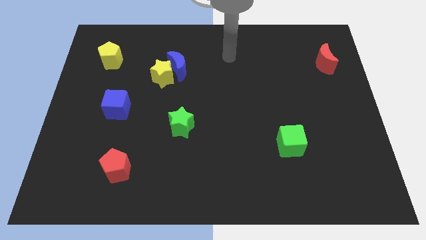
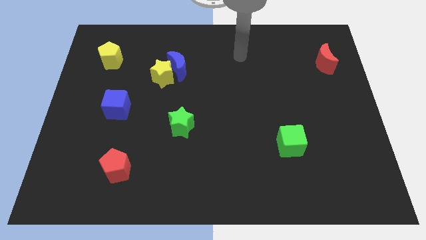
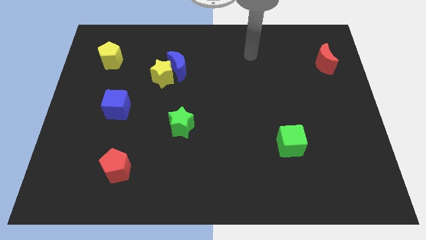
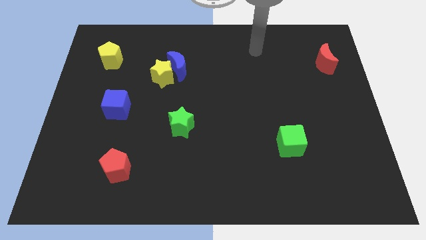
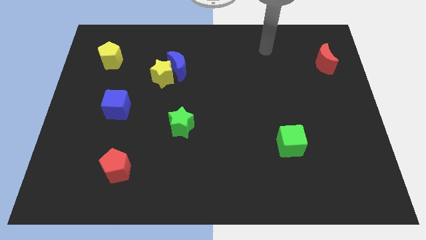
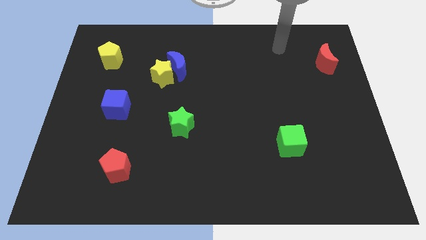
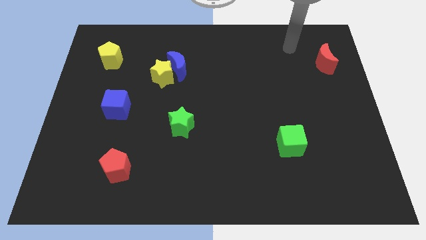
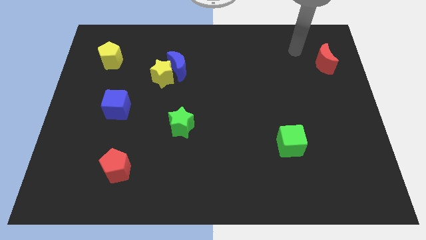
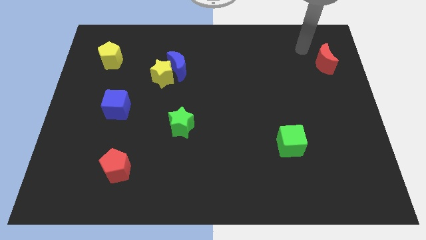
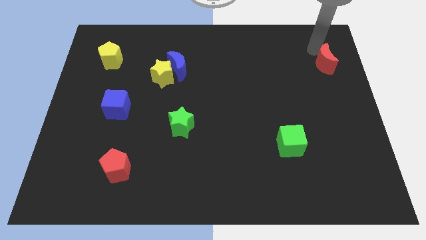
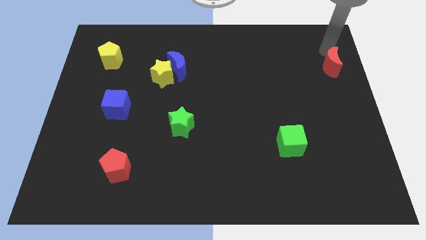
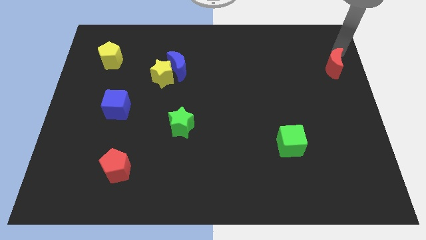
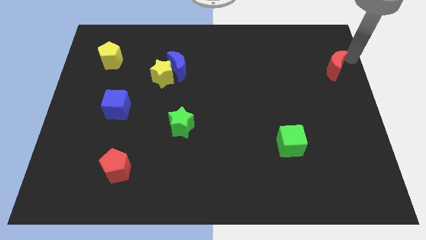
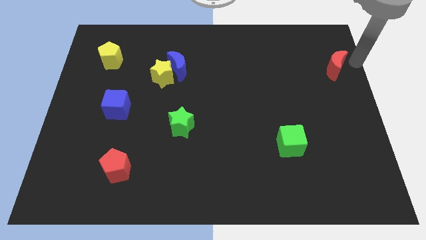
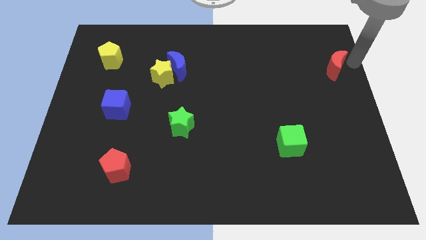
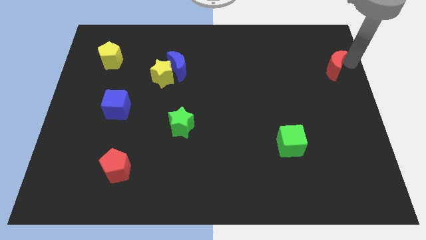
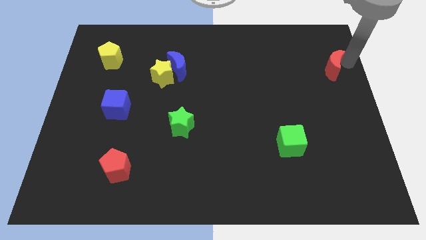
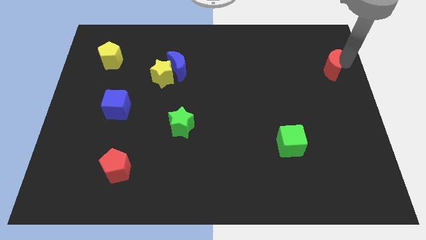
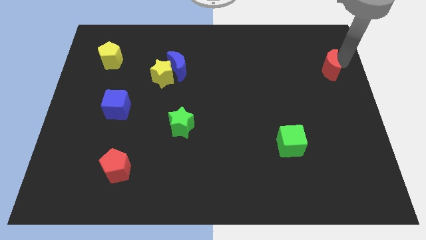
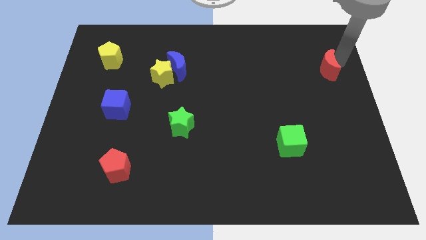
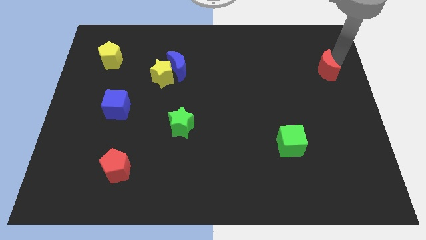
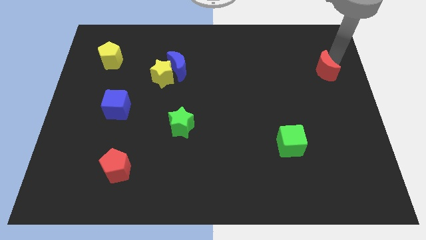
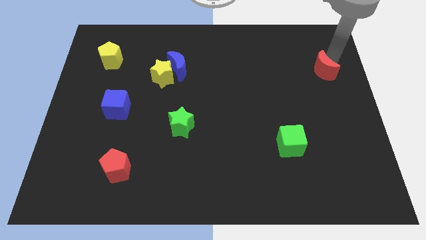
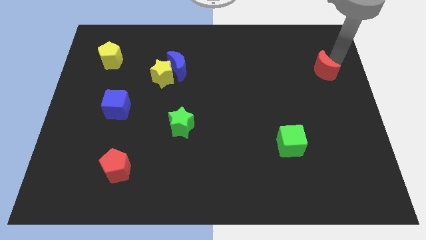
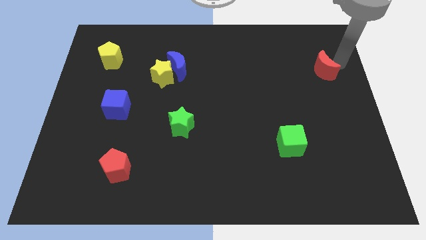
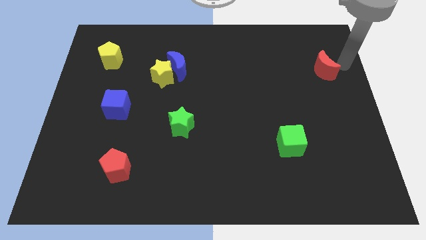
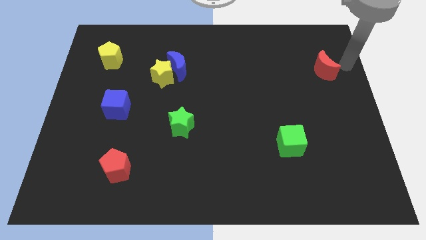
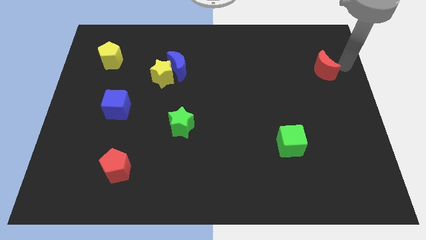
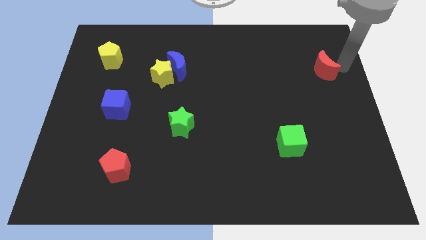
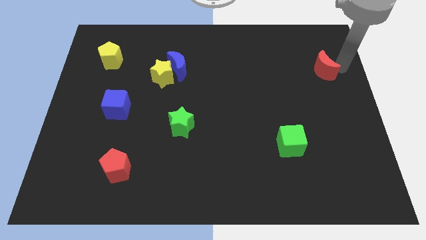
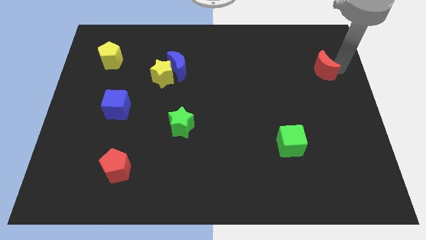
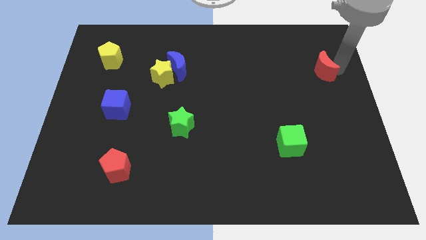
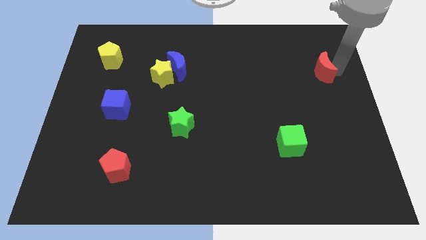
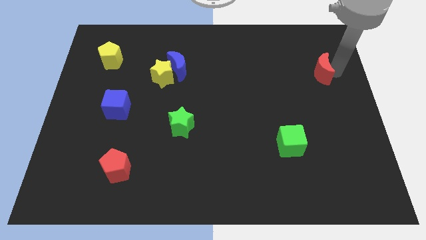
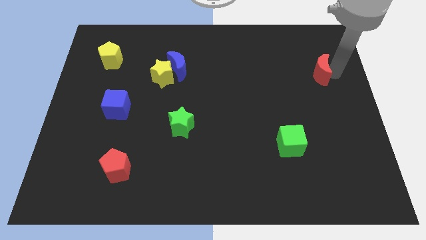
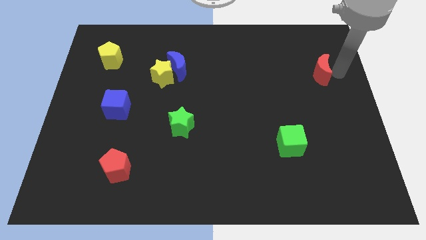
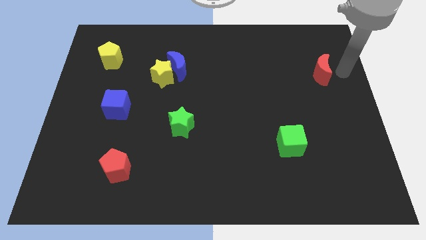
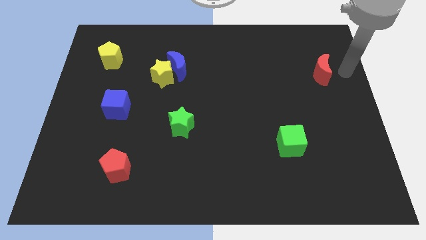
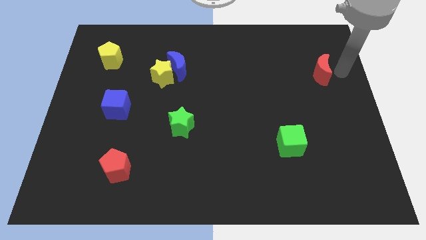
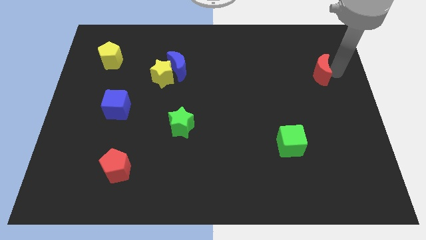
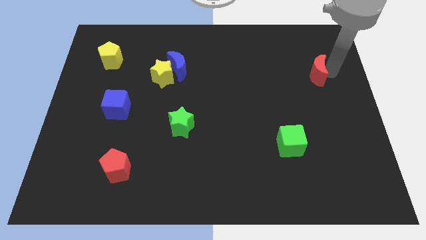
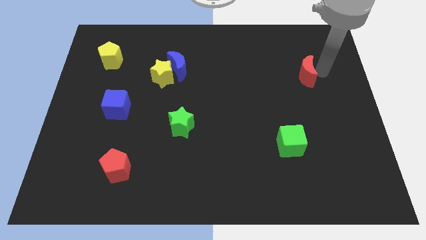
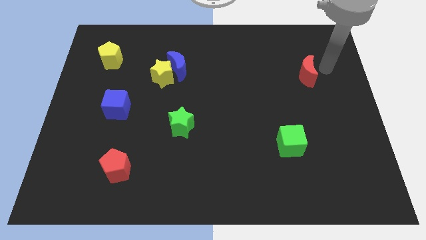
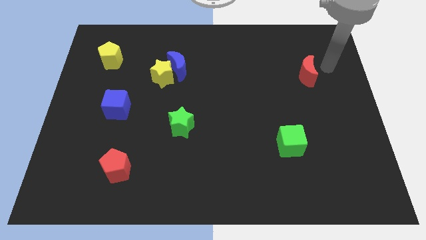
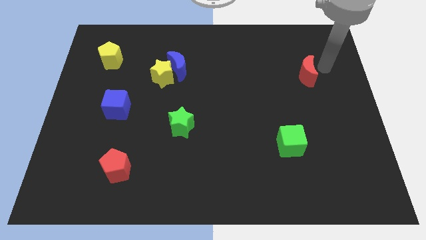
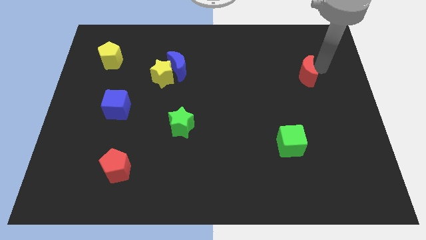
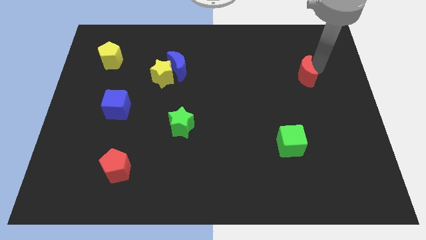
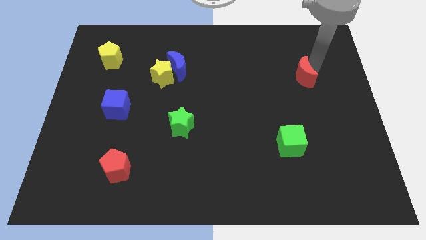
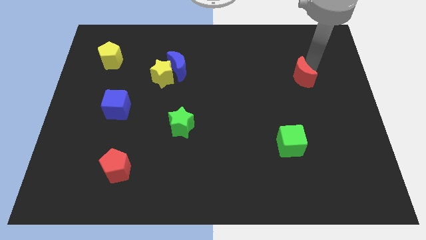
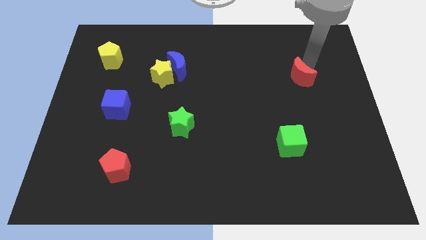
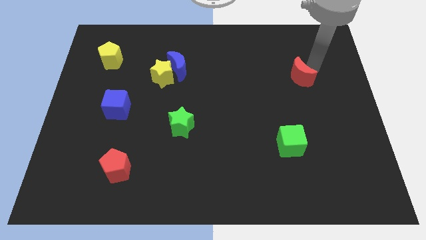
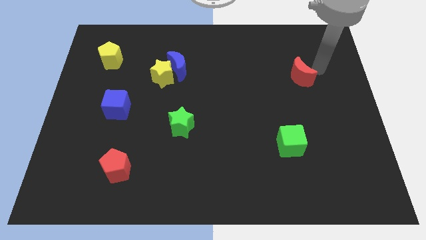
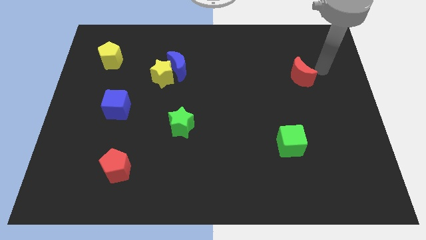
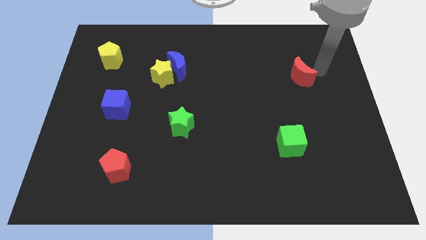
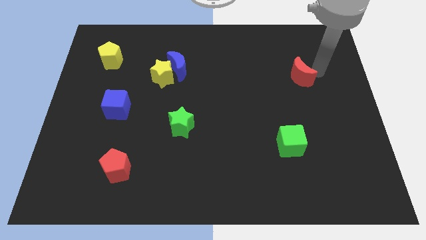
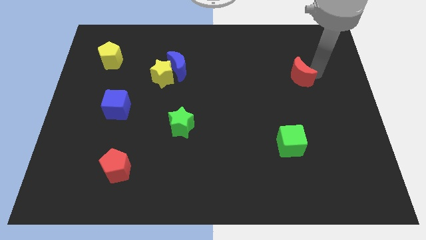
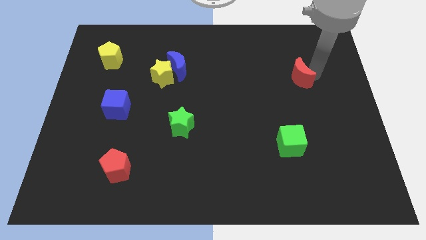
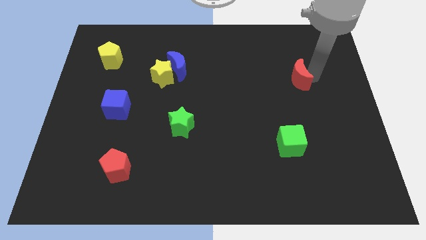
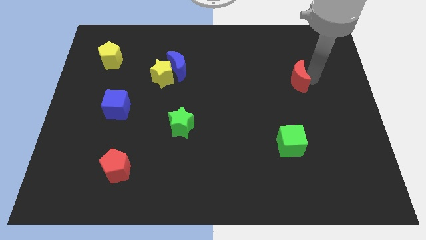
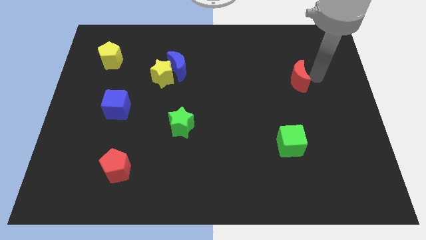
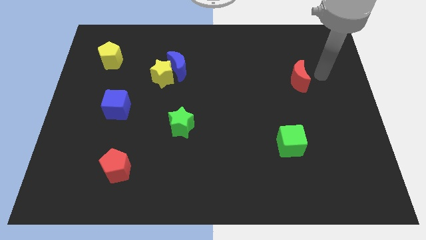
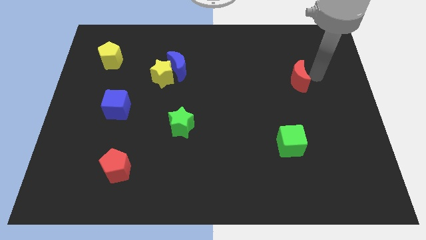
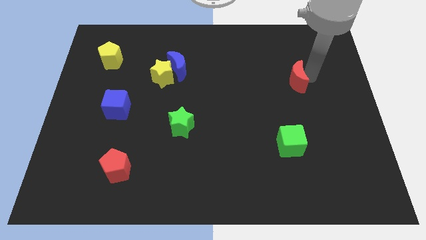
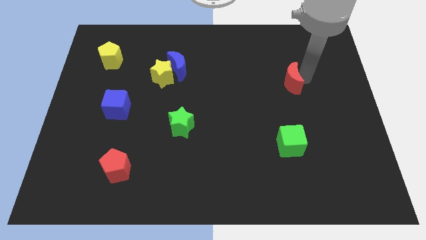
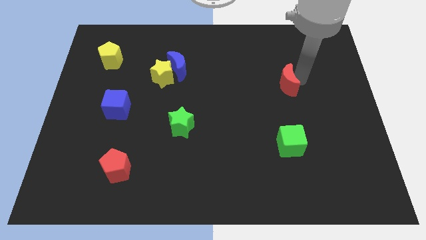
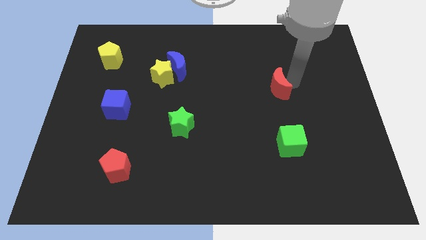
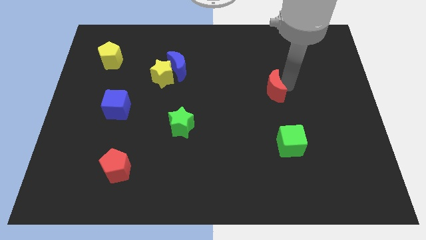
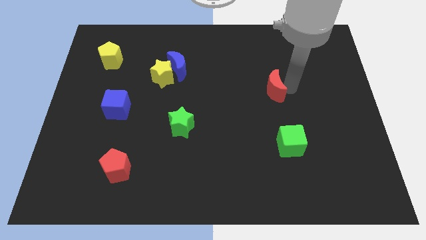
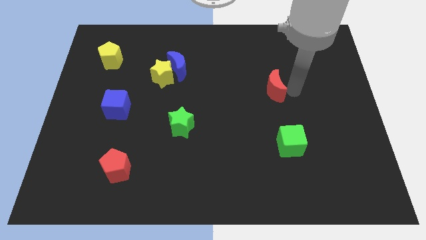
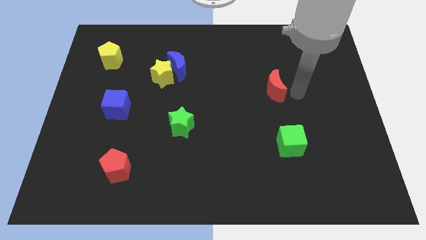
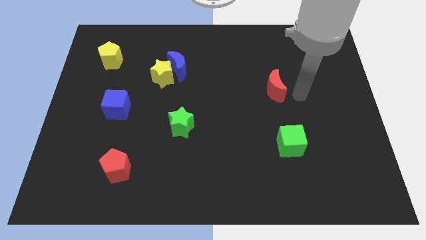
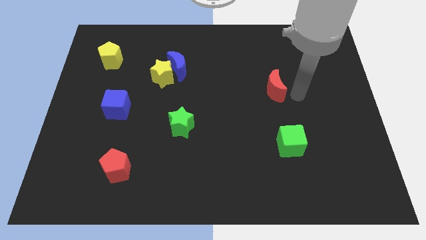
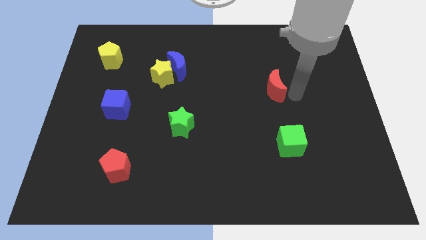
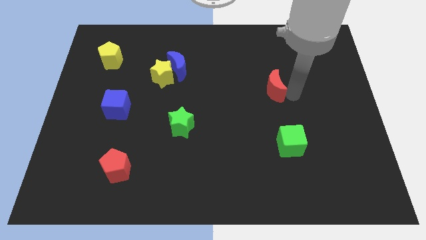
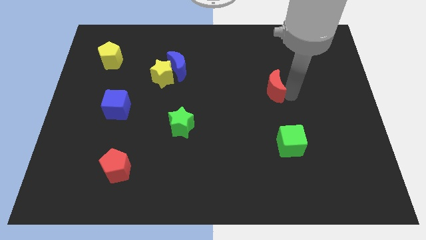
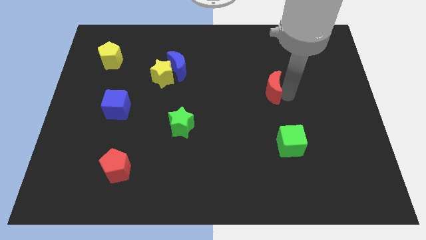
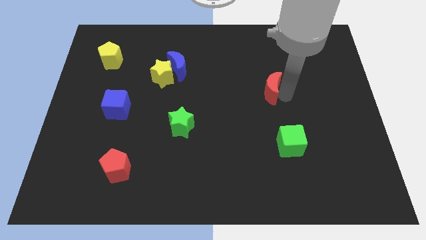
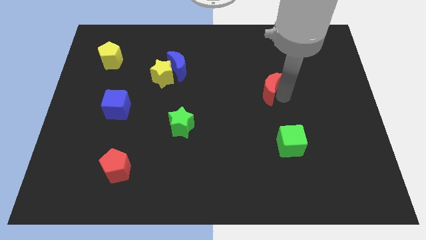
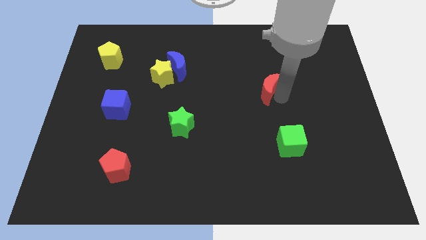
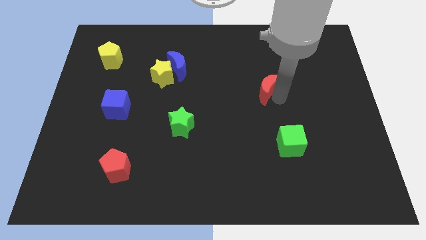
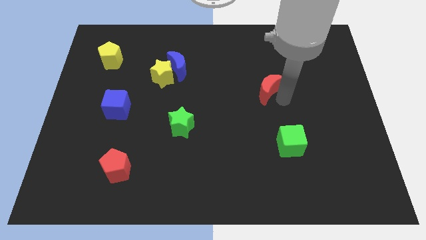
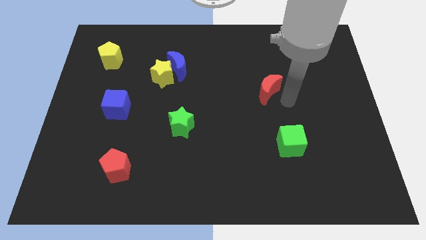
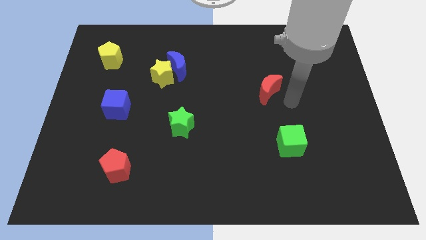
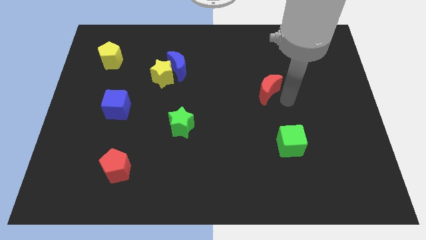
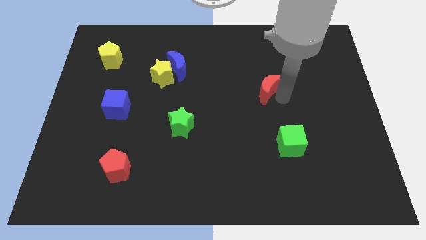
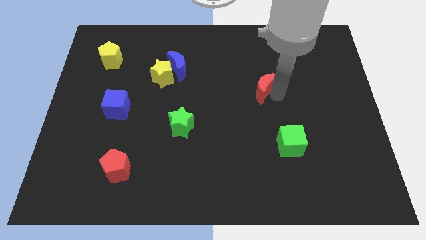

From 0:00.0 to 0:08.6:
push the red moon to the middle
